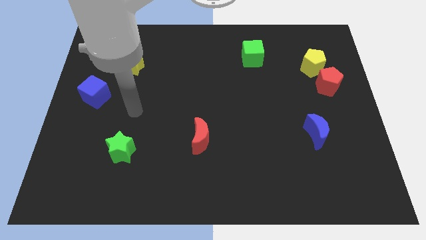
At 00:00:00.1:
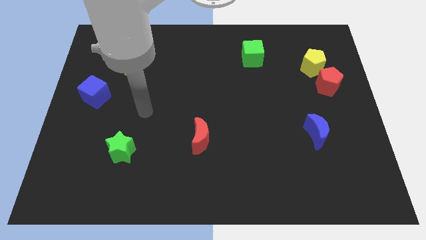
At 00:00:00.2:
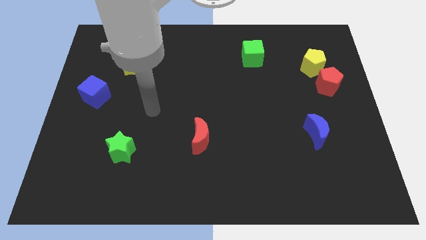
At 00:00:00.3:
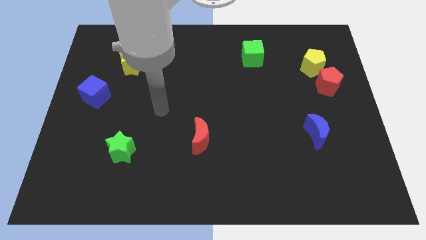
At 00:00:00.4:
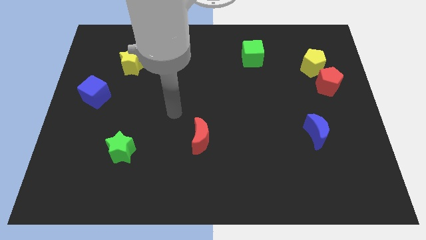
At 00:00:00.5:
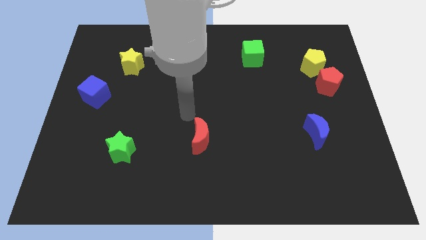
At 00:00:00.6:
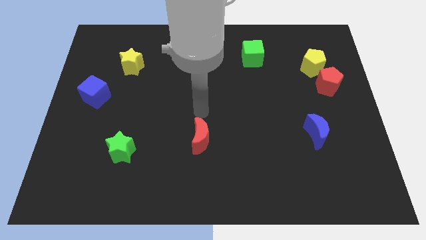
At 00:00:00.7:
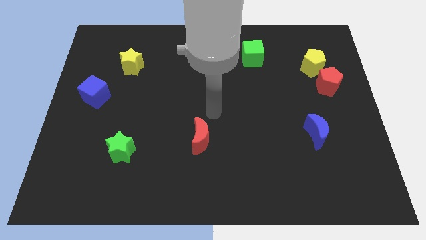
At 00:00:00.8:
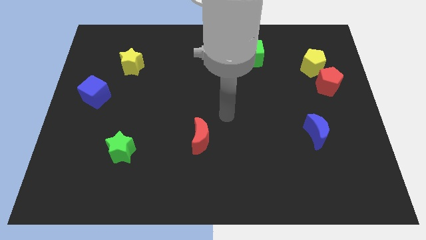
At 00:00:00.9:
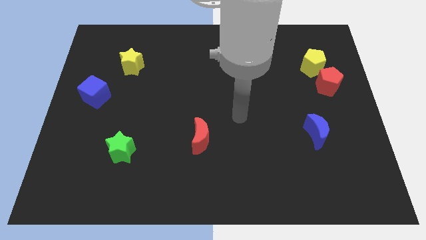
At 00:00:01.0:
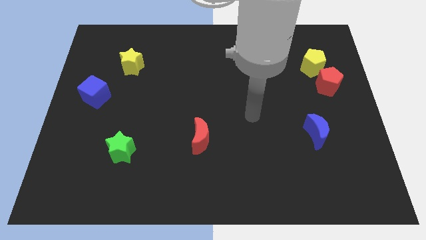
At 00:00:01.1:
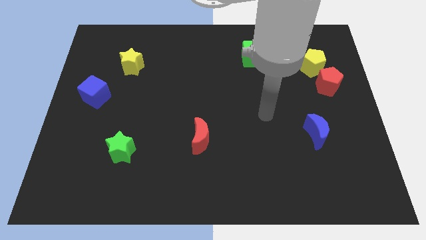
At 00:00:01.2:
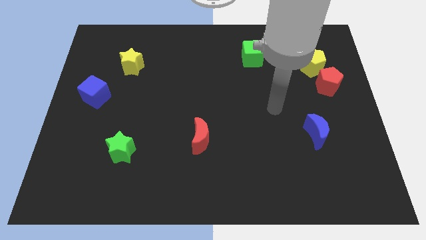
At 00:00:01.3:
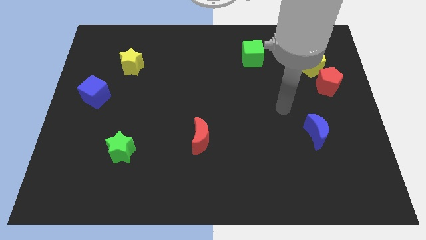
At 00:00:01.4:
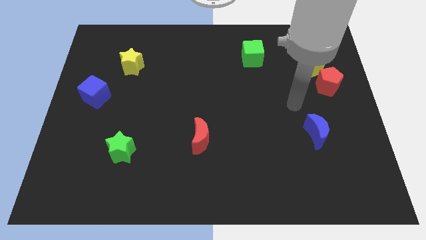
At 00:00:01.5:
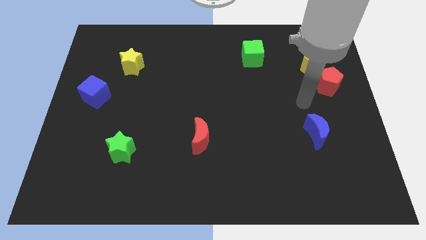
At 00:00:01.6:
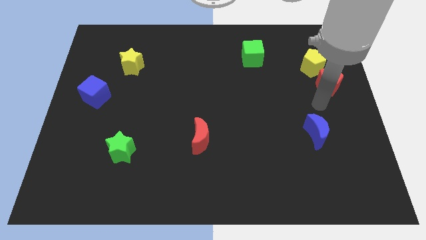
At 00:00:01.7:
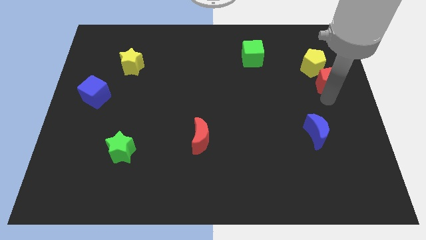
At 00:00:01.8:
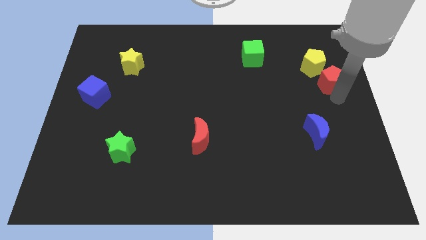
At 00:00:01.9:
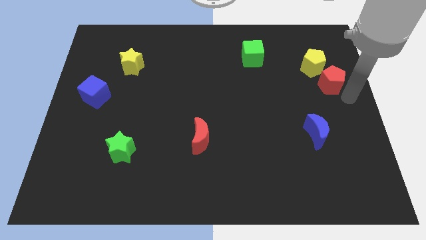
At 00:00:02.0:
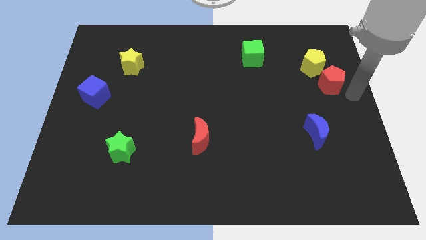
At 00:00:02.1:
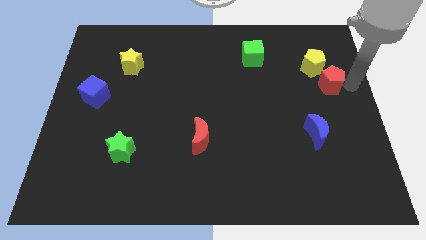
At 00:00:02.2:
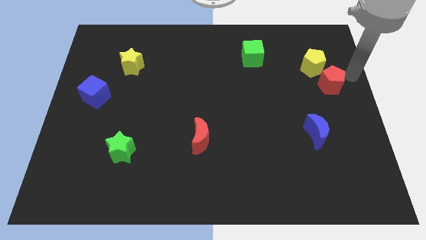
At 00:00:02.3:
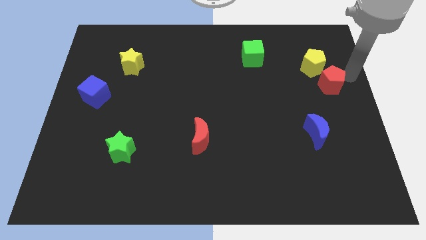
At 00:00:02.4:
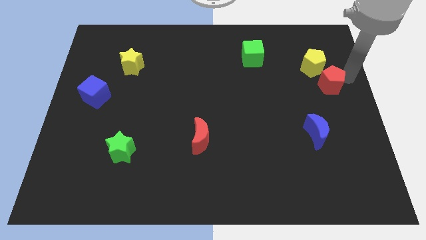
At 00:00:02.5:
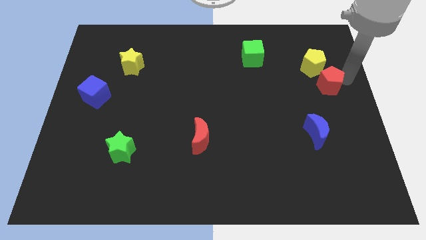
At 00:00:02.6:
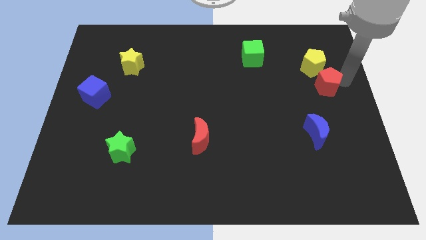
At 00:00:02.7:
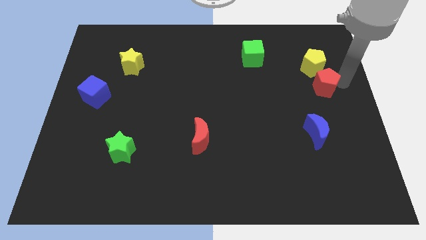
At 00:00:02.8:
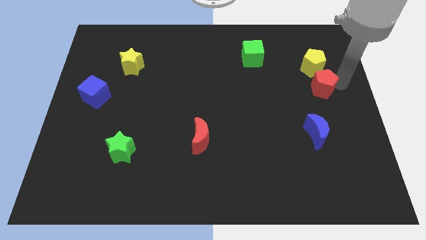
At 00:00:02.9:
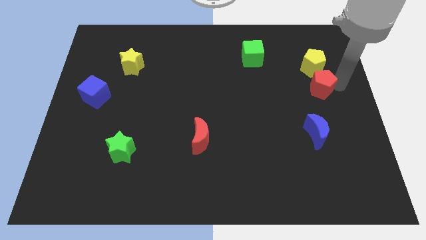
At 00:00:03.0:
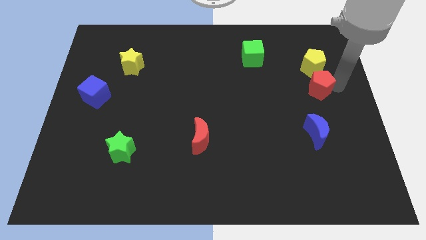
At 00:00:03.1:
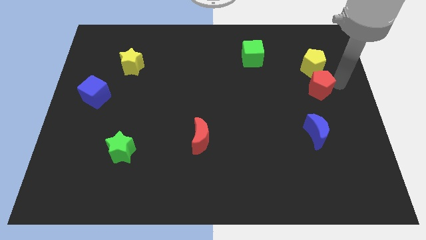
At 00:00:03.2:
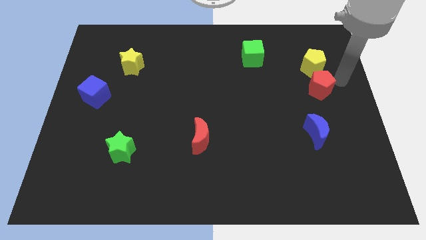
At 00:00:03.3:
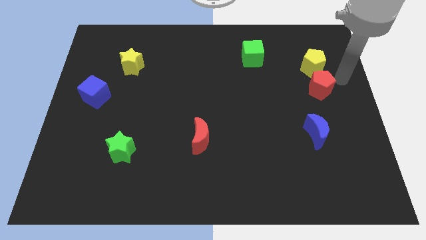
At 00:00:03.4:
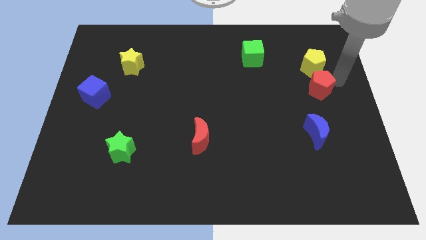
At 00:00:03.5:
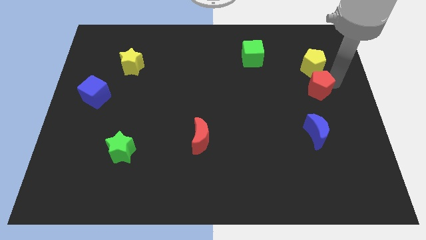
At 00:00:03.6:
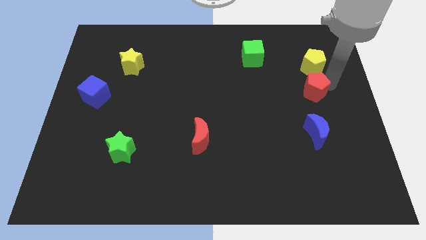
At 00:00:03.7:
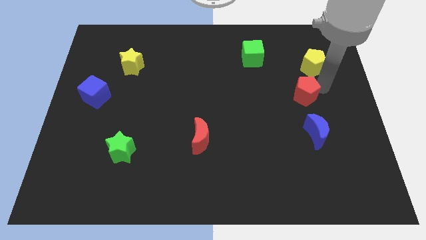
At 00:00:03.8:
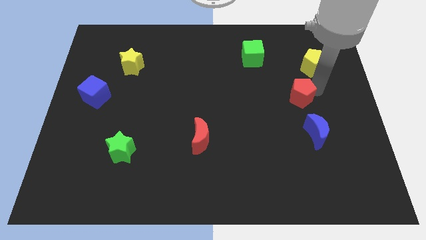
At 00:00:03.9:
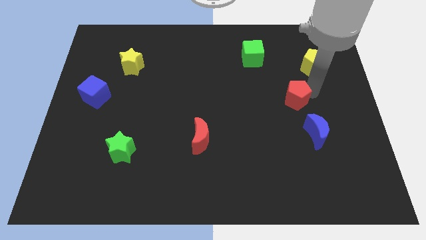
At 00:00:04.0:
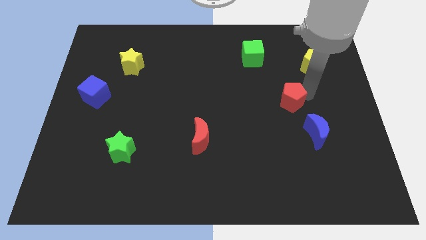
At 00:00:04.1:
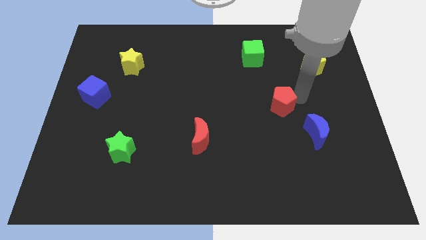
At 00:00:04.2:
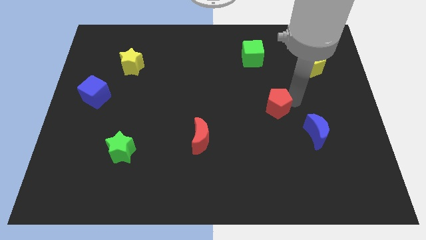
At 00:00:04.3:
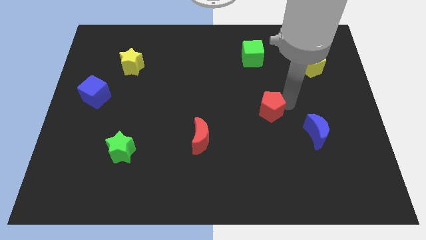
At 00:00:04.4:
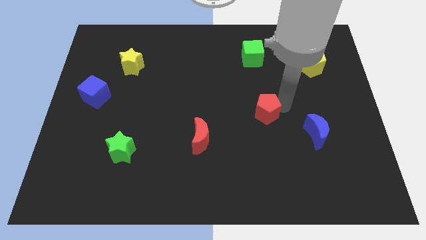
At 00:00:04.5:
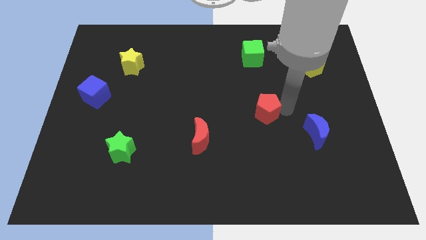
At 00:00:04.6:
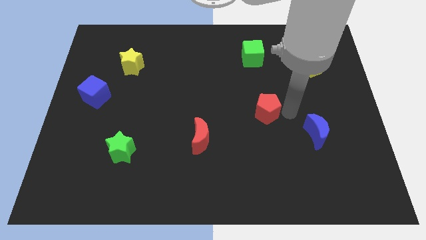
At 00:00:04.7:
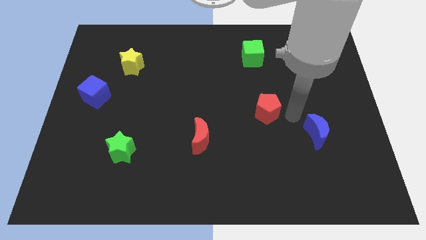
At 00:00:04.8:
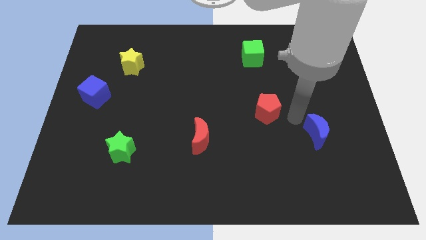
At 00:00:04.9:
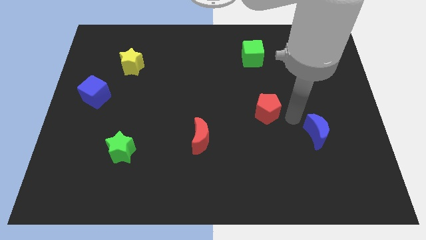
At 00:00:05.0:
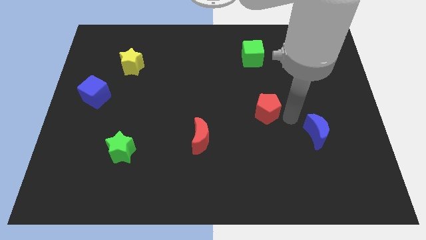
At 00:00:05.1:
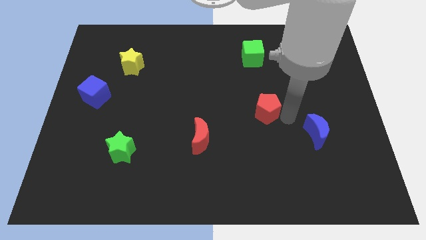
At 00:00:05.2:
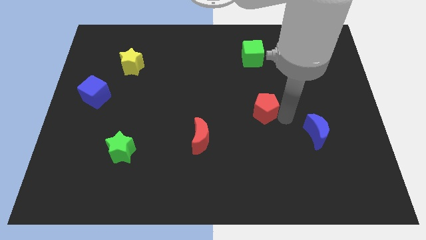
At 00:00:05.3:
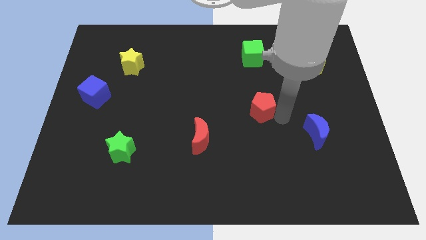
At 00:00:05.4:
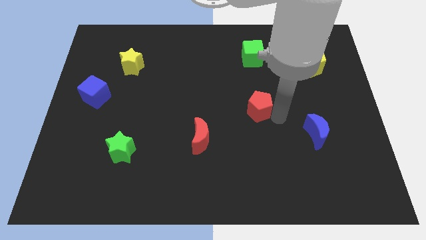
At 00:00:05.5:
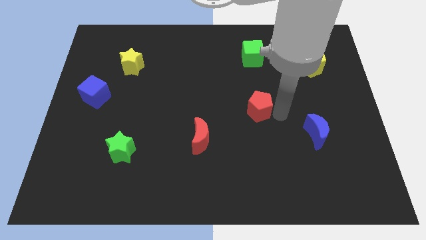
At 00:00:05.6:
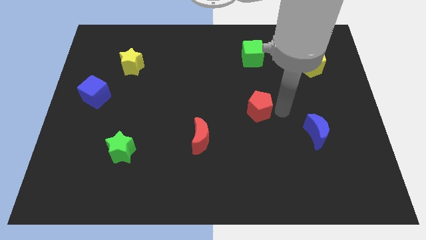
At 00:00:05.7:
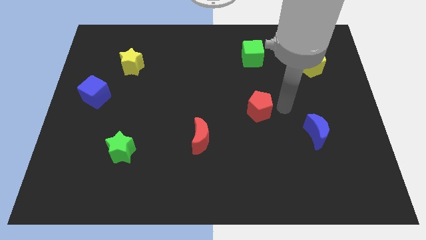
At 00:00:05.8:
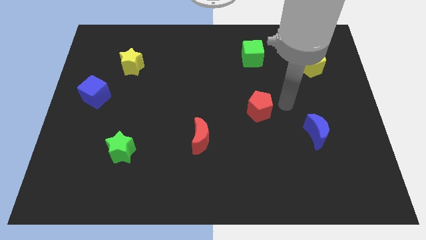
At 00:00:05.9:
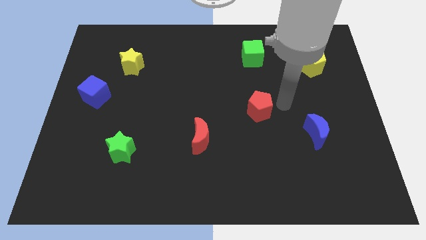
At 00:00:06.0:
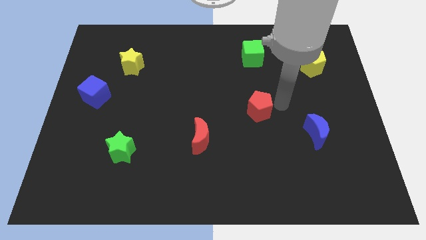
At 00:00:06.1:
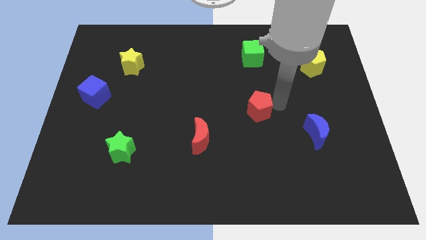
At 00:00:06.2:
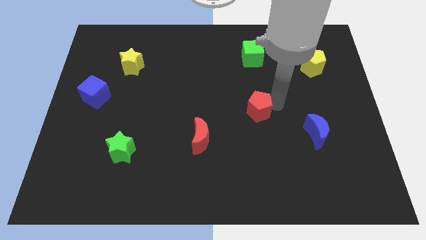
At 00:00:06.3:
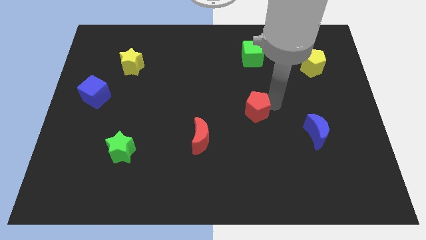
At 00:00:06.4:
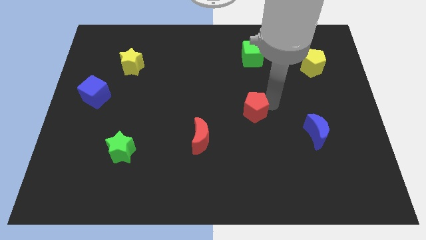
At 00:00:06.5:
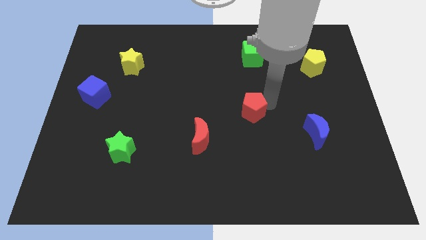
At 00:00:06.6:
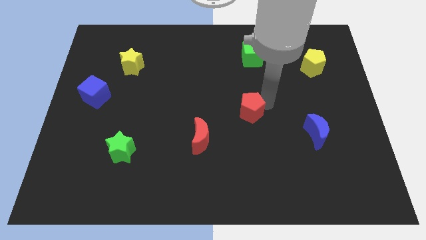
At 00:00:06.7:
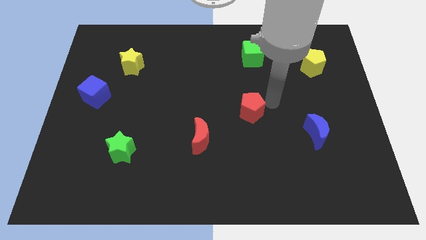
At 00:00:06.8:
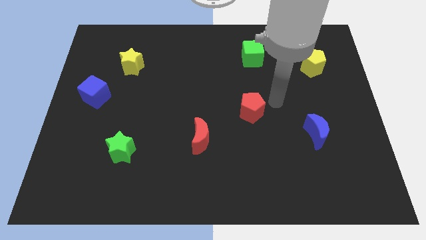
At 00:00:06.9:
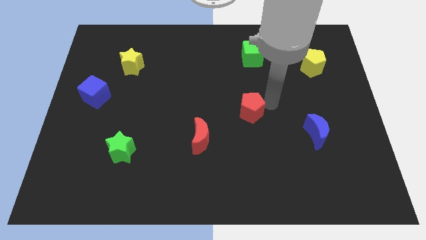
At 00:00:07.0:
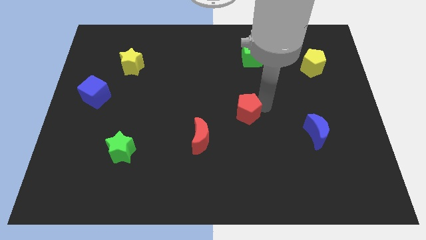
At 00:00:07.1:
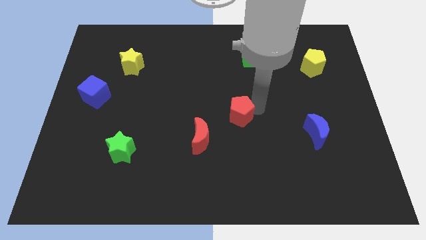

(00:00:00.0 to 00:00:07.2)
move the red pentagon to the top right side of the red moon
